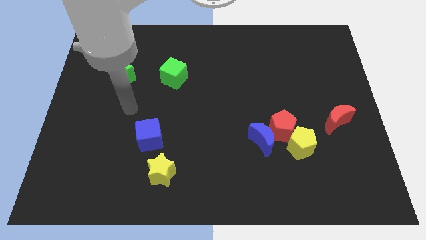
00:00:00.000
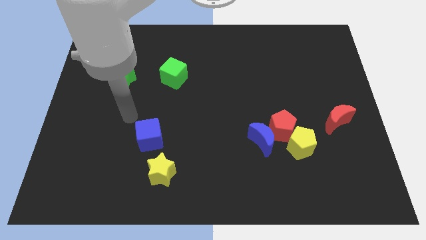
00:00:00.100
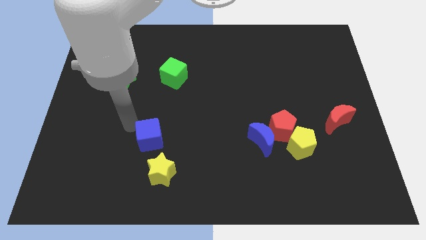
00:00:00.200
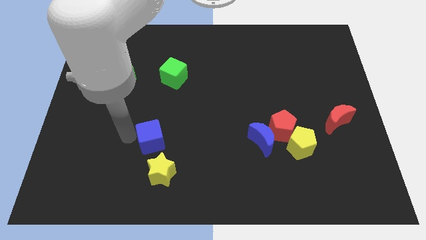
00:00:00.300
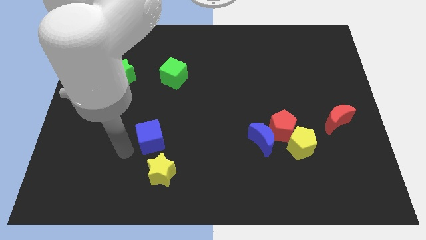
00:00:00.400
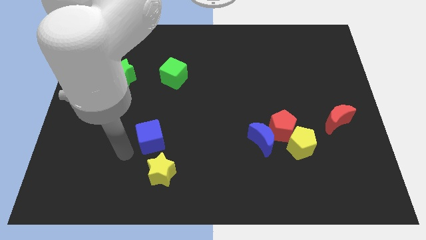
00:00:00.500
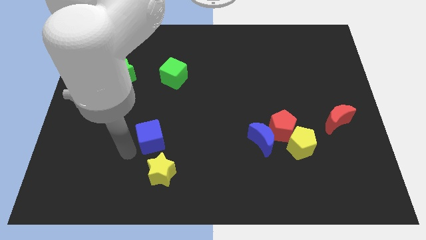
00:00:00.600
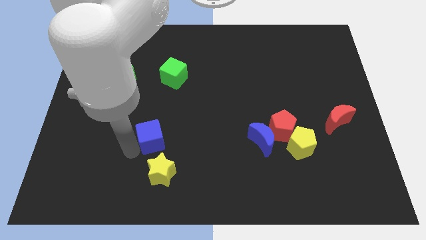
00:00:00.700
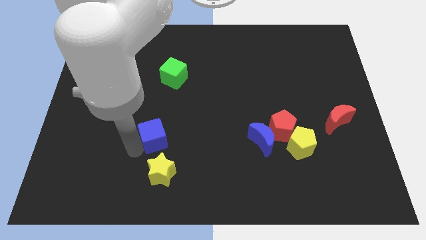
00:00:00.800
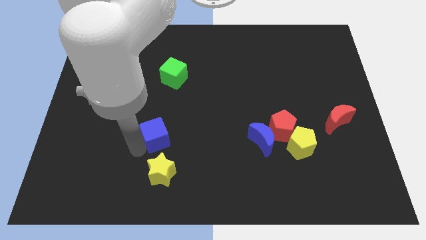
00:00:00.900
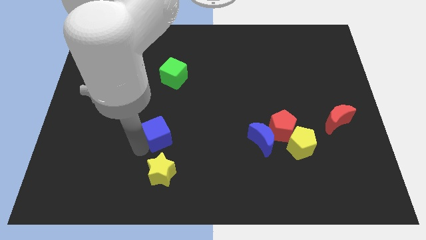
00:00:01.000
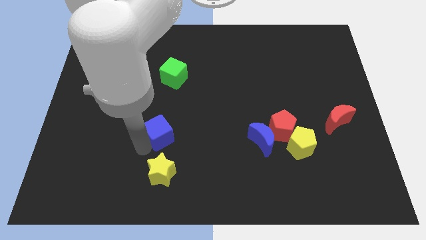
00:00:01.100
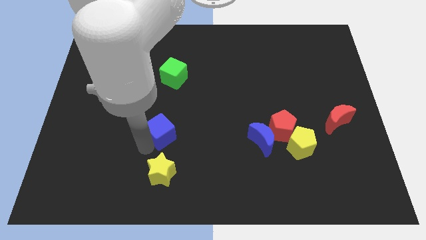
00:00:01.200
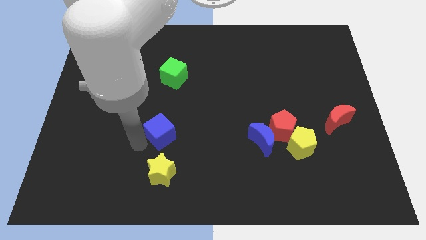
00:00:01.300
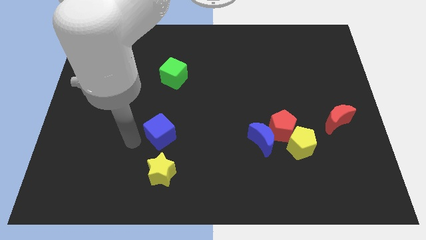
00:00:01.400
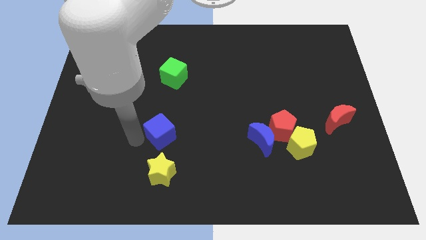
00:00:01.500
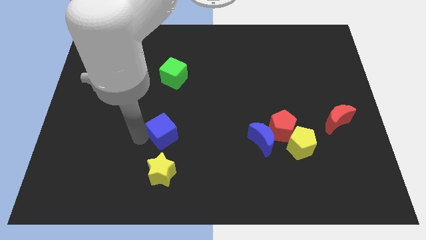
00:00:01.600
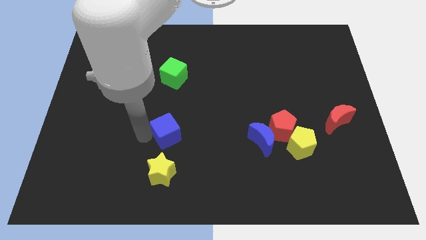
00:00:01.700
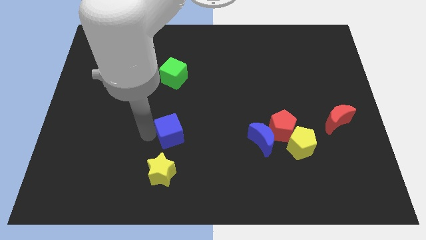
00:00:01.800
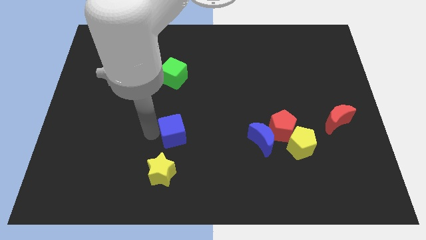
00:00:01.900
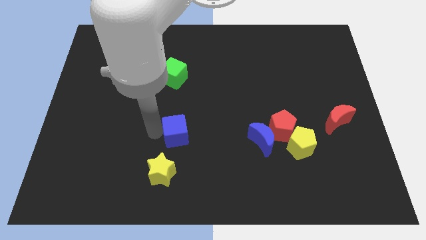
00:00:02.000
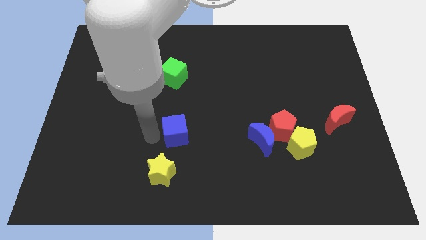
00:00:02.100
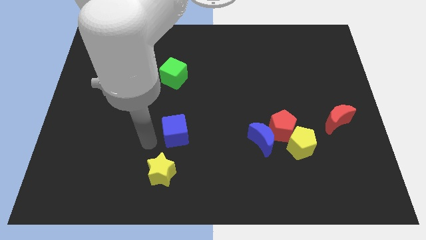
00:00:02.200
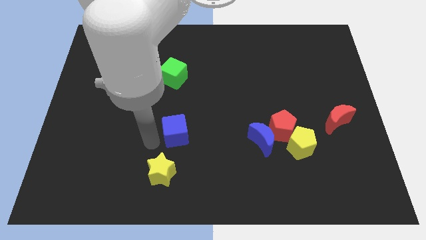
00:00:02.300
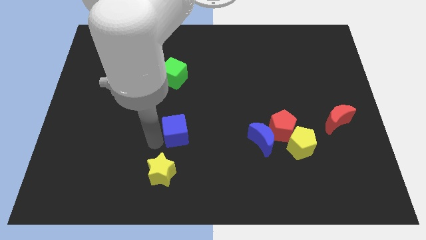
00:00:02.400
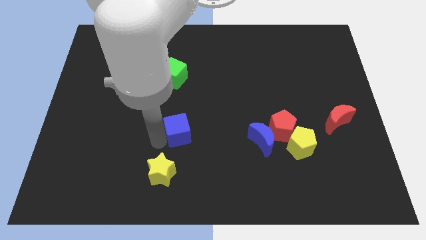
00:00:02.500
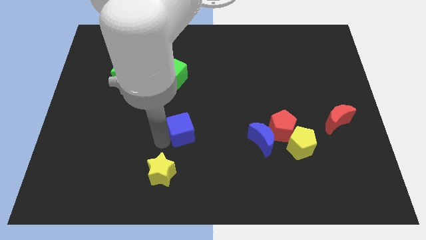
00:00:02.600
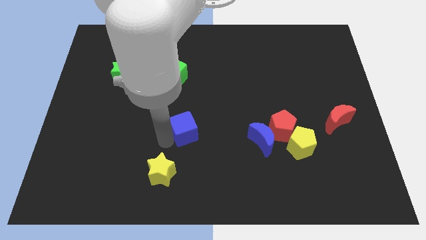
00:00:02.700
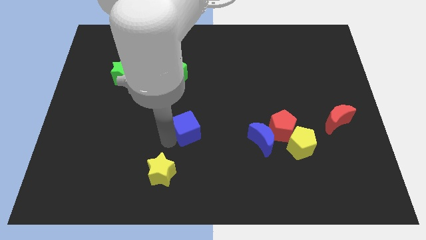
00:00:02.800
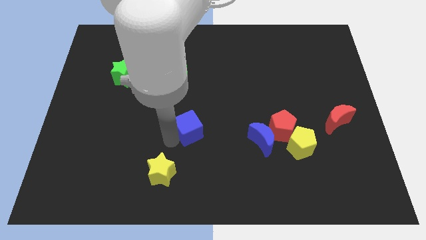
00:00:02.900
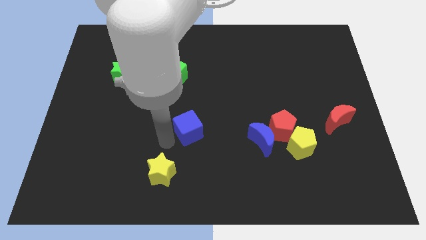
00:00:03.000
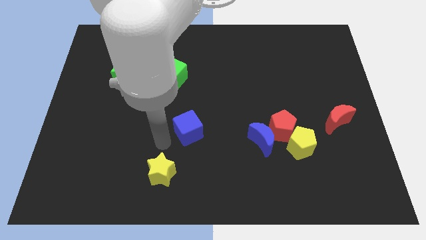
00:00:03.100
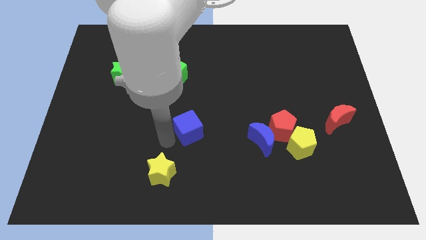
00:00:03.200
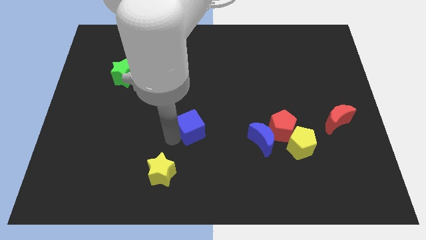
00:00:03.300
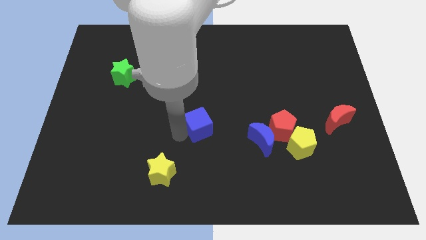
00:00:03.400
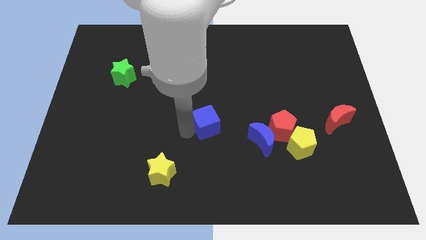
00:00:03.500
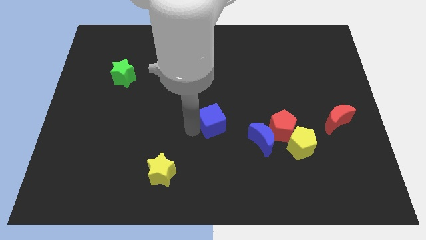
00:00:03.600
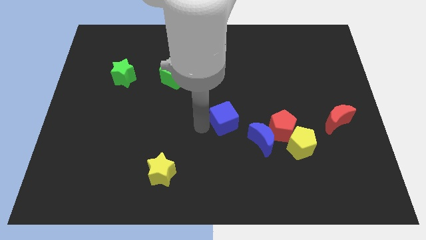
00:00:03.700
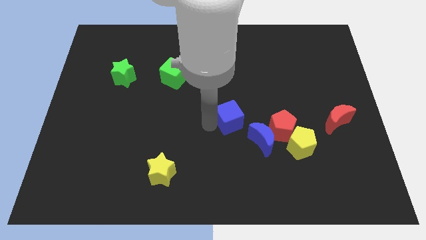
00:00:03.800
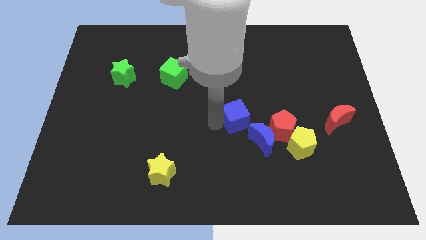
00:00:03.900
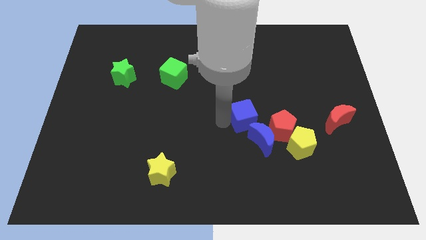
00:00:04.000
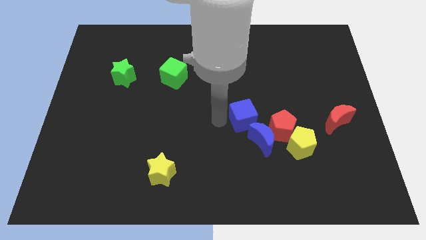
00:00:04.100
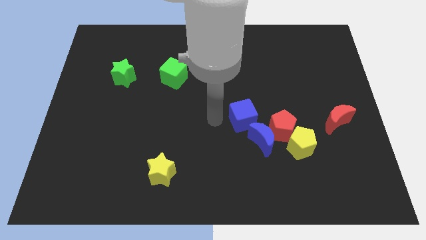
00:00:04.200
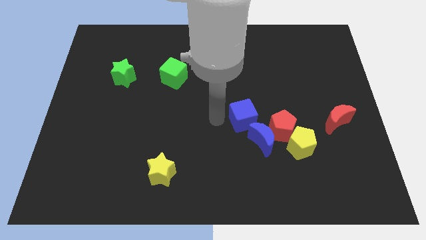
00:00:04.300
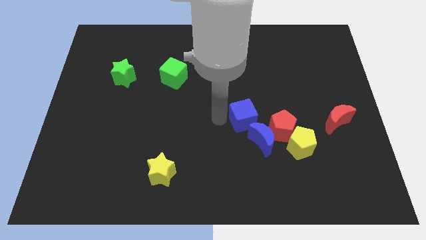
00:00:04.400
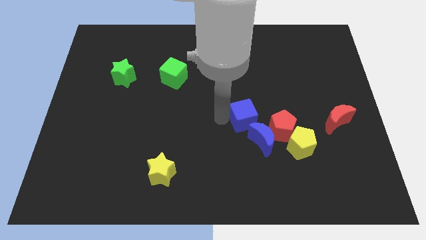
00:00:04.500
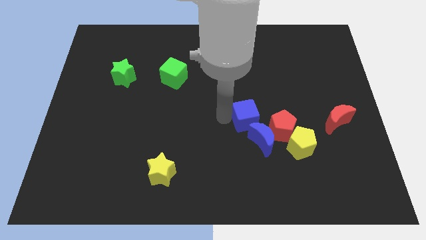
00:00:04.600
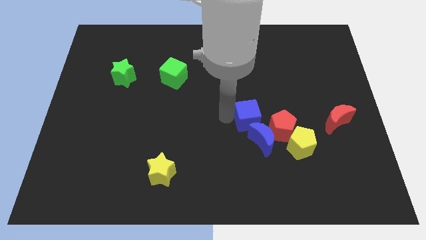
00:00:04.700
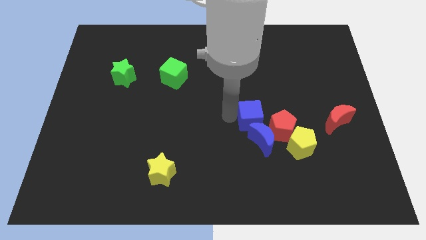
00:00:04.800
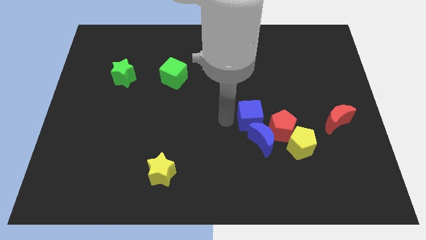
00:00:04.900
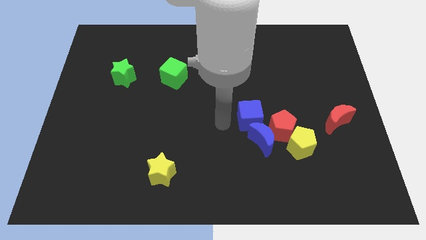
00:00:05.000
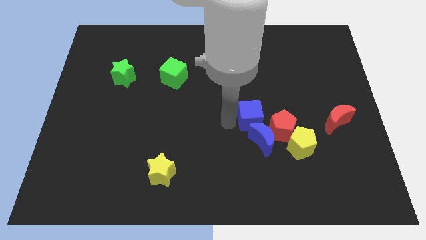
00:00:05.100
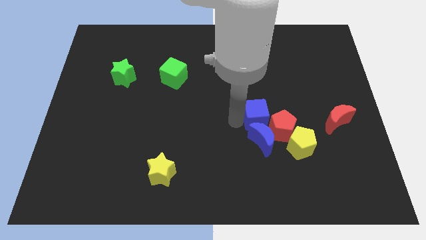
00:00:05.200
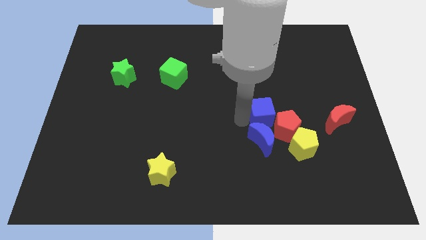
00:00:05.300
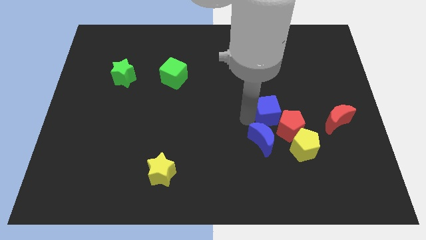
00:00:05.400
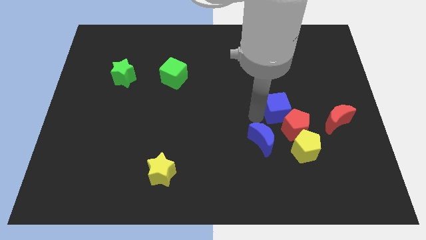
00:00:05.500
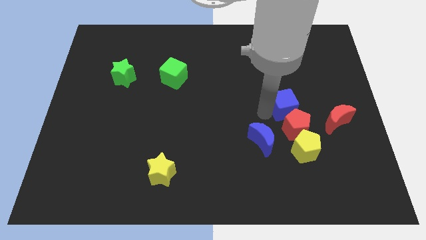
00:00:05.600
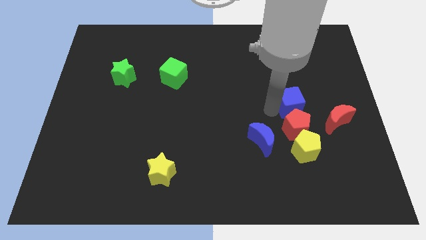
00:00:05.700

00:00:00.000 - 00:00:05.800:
move the blue cube to the top right side of the red pentagon

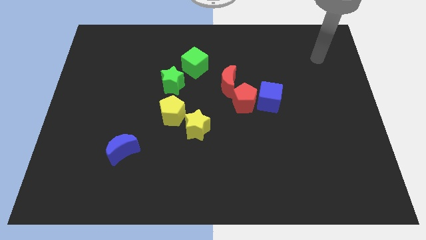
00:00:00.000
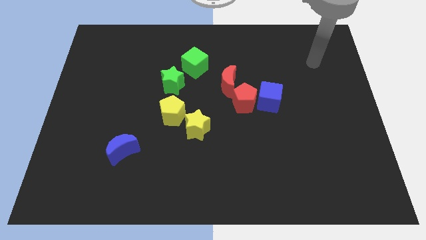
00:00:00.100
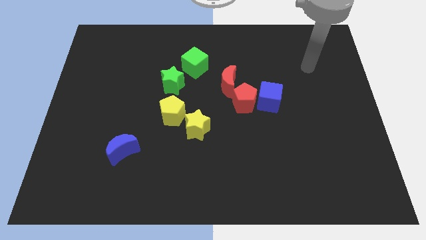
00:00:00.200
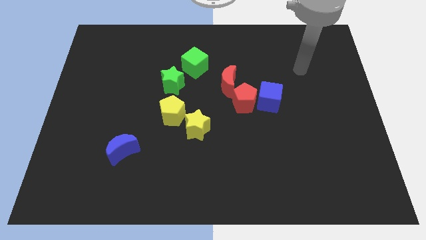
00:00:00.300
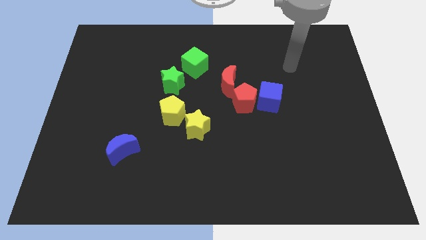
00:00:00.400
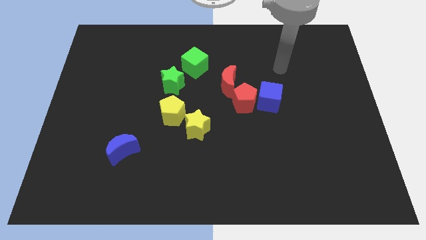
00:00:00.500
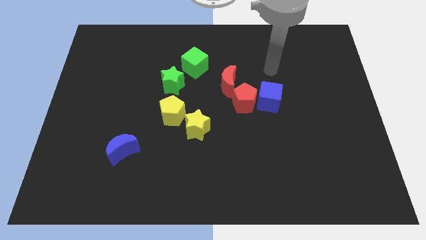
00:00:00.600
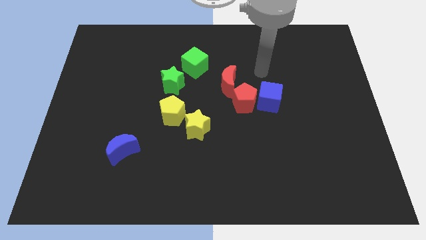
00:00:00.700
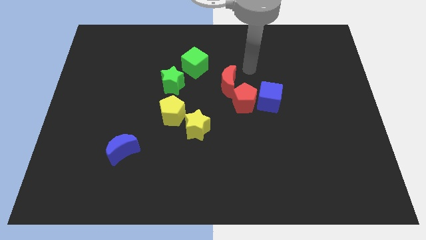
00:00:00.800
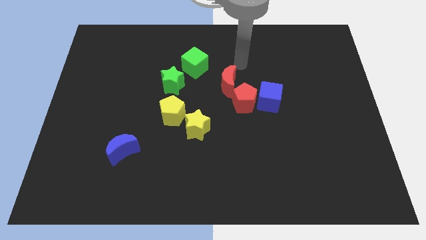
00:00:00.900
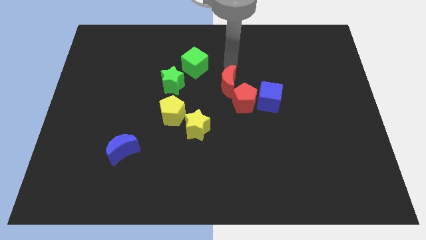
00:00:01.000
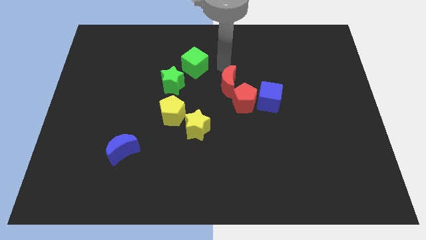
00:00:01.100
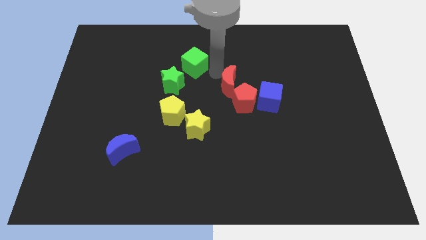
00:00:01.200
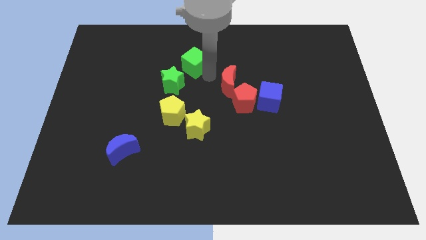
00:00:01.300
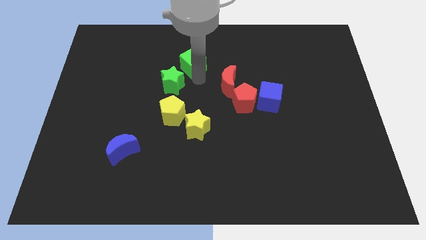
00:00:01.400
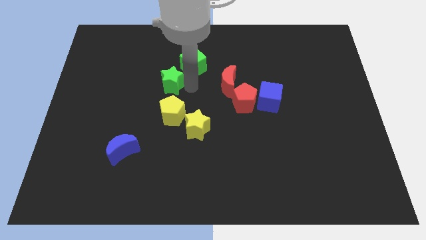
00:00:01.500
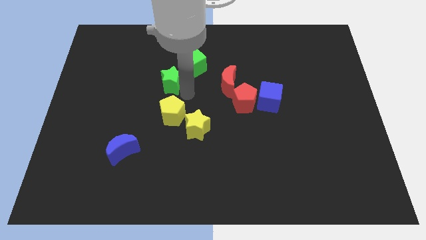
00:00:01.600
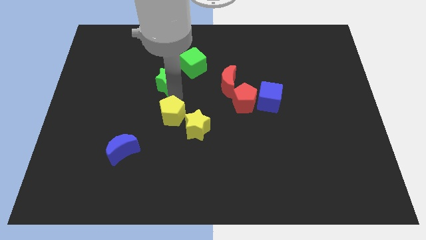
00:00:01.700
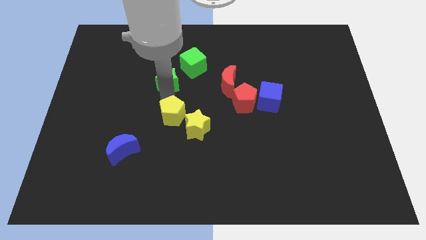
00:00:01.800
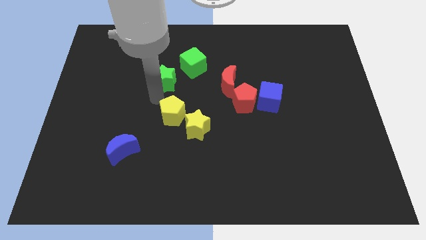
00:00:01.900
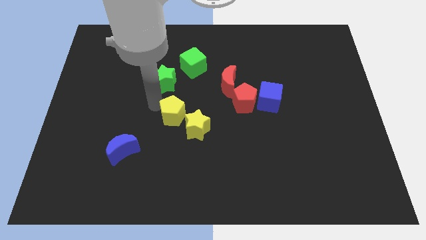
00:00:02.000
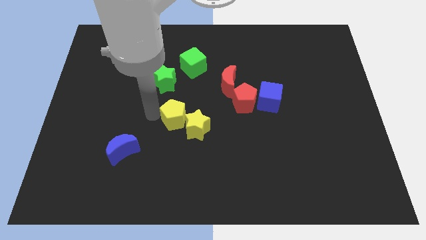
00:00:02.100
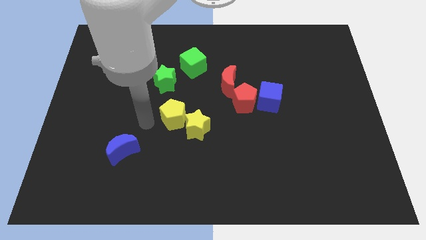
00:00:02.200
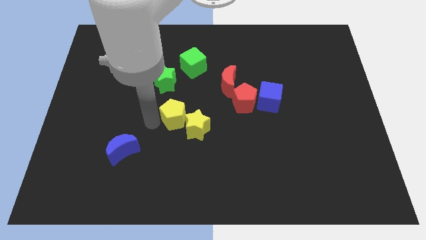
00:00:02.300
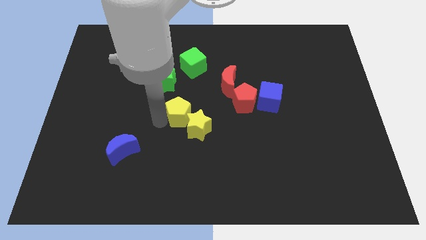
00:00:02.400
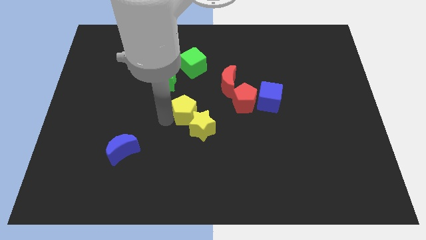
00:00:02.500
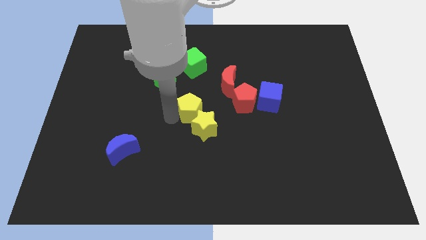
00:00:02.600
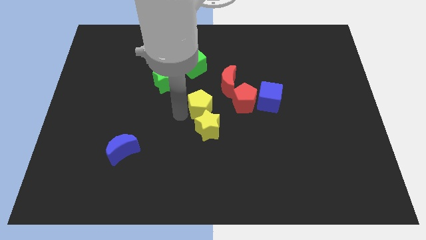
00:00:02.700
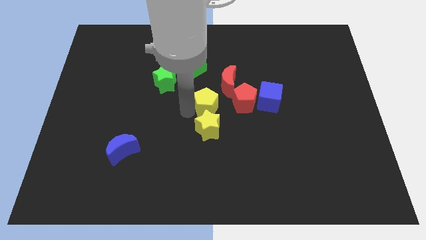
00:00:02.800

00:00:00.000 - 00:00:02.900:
slide the yellow pentagon to the top right side of the yellow star
